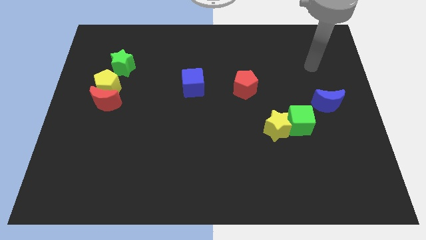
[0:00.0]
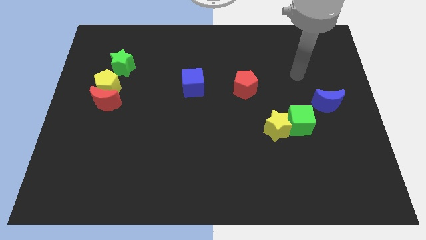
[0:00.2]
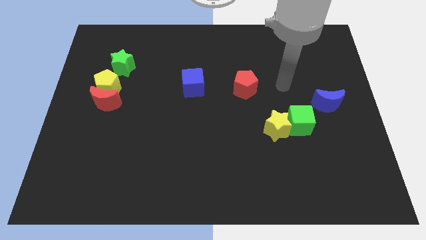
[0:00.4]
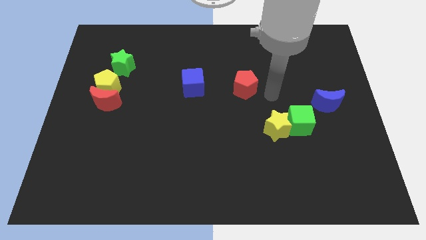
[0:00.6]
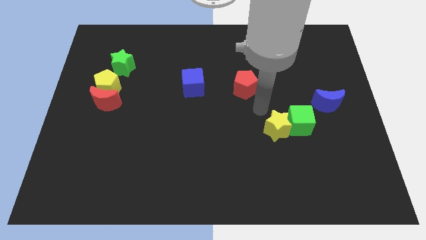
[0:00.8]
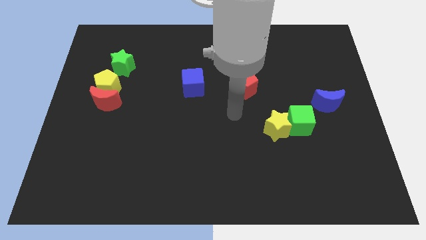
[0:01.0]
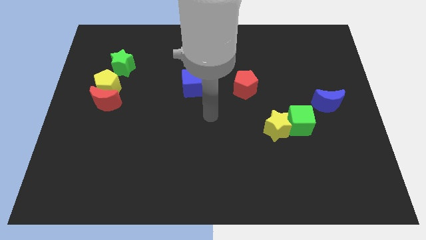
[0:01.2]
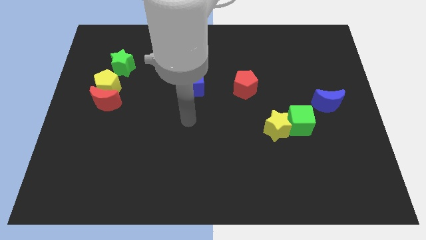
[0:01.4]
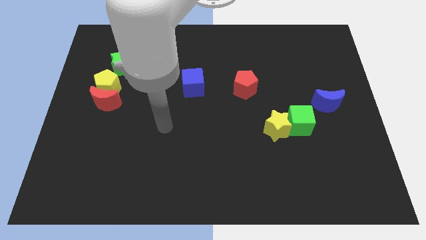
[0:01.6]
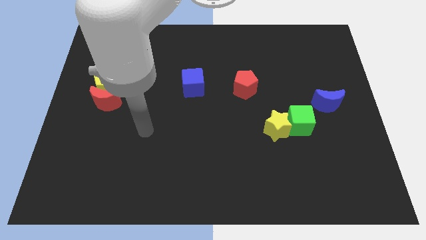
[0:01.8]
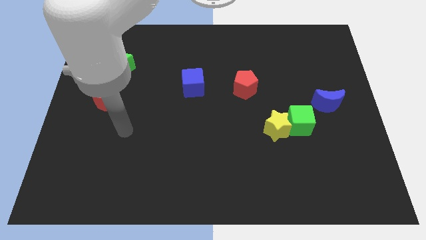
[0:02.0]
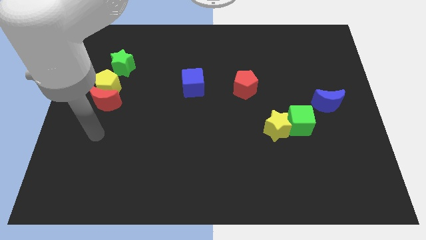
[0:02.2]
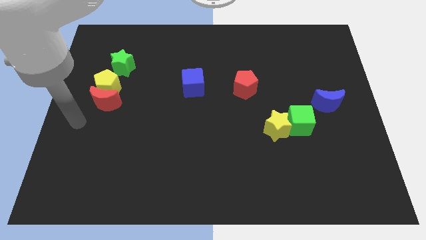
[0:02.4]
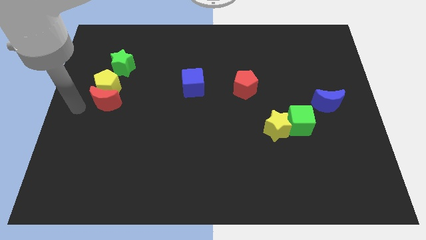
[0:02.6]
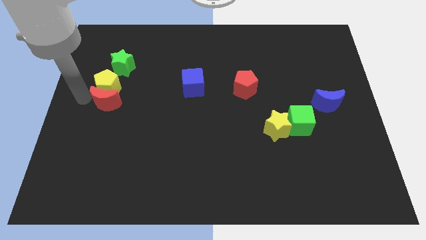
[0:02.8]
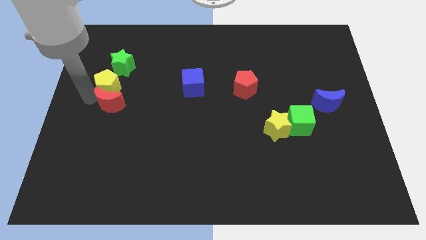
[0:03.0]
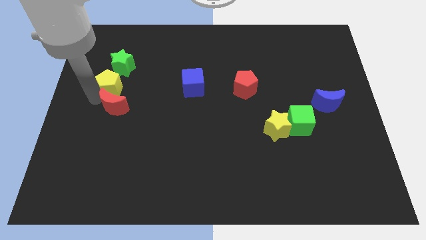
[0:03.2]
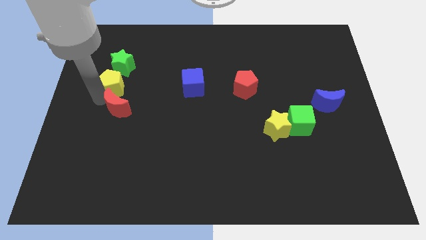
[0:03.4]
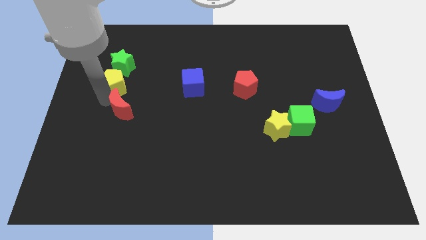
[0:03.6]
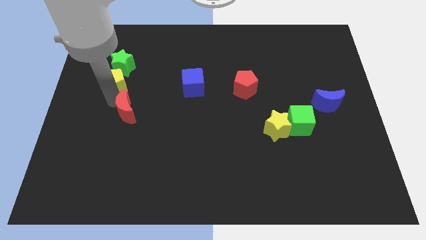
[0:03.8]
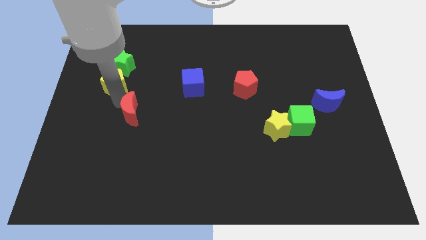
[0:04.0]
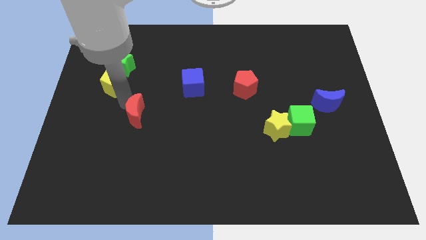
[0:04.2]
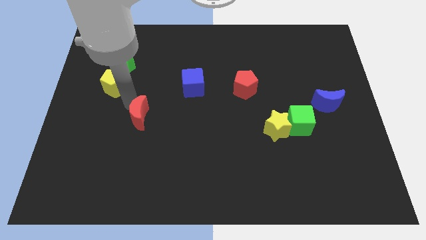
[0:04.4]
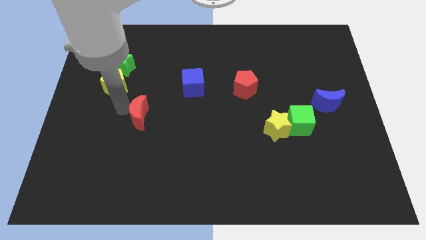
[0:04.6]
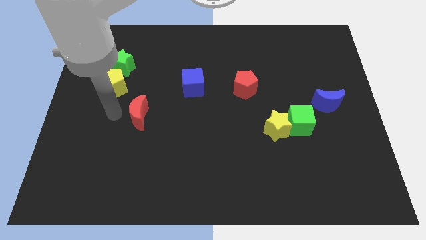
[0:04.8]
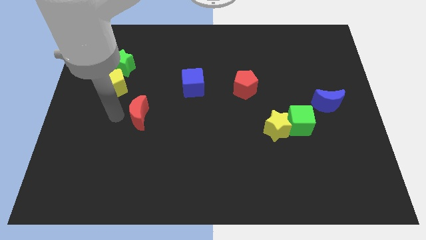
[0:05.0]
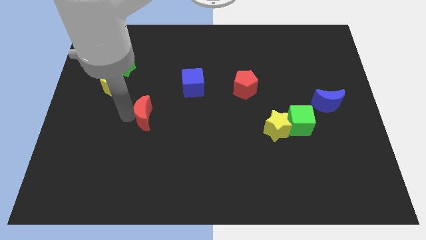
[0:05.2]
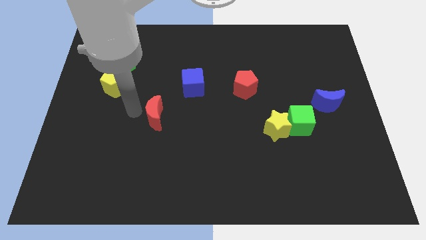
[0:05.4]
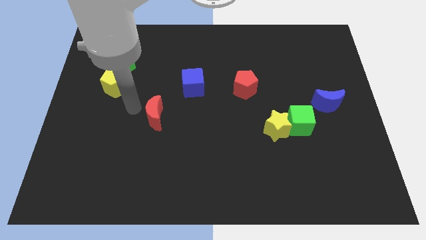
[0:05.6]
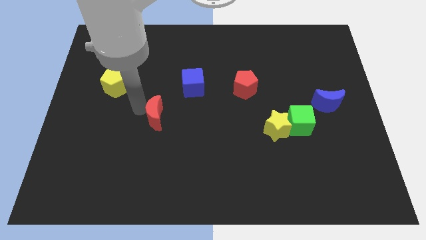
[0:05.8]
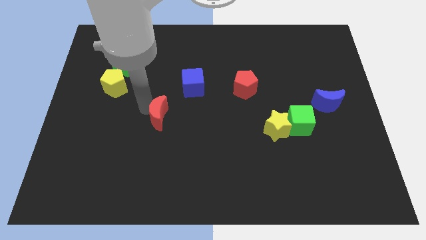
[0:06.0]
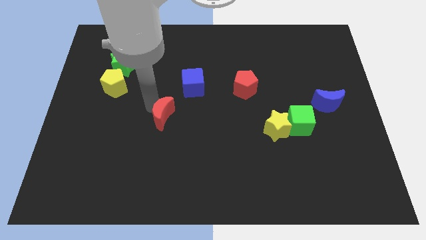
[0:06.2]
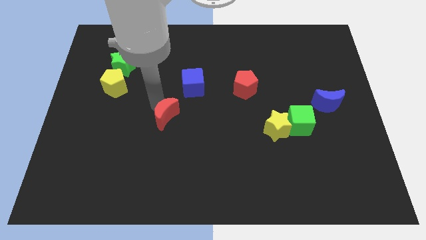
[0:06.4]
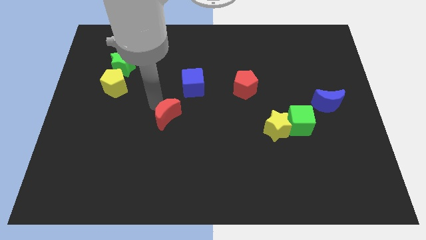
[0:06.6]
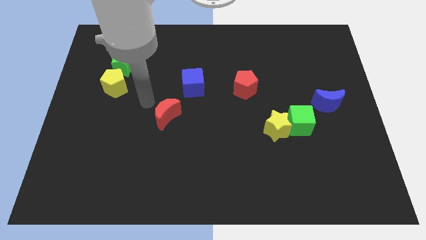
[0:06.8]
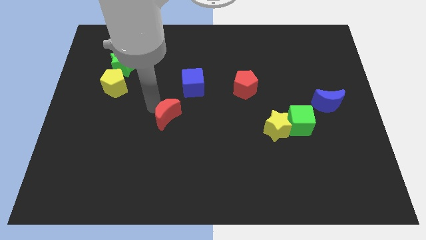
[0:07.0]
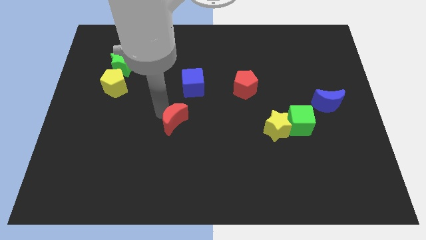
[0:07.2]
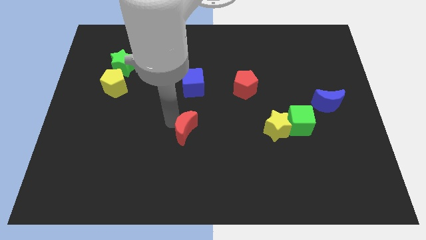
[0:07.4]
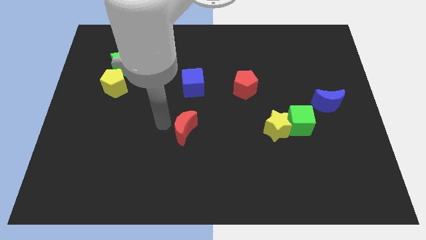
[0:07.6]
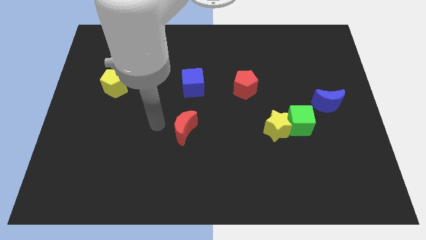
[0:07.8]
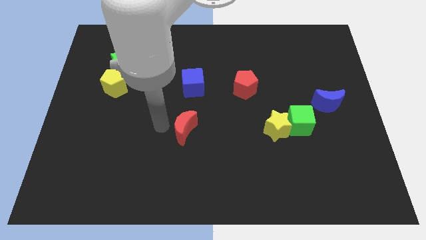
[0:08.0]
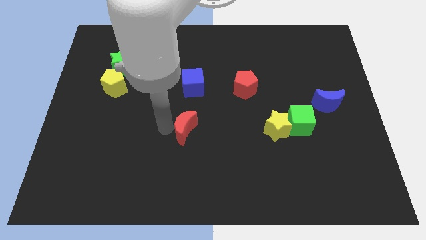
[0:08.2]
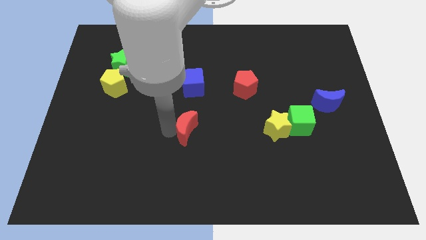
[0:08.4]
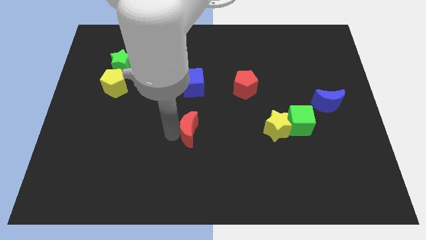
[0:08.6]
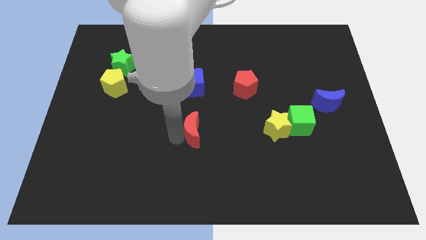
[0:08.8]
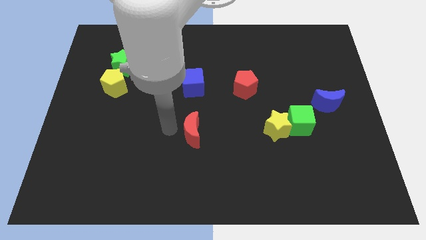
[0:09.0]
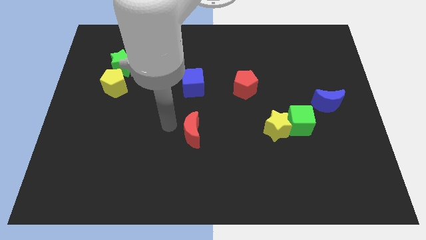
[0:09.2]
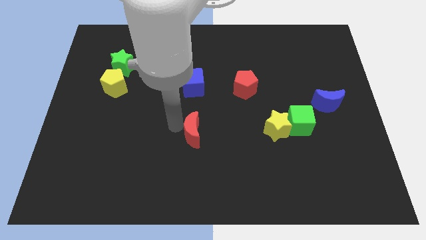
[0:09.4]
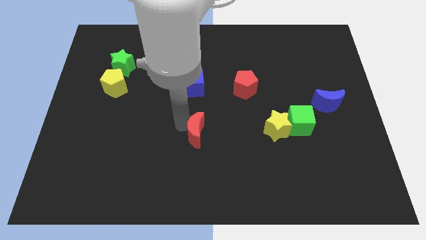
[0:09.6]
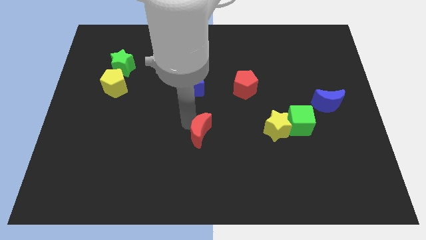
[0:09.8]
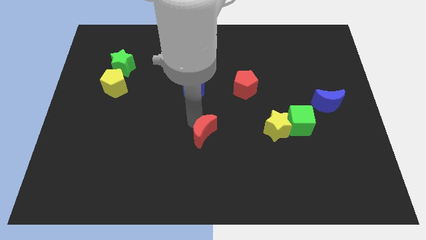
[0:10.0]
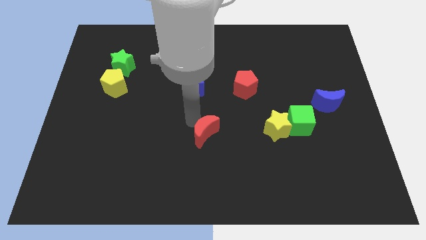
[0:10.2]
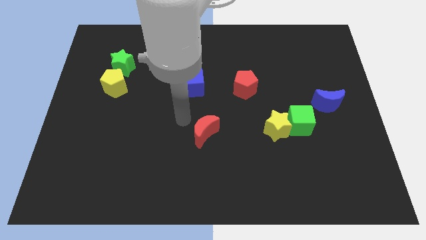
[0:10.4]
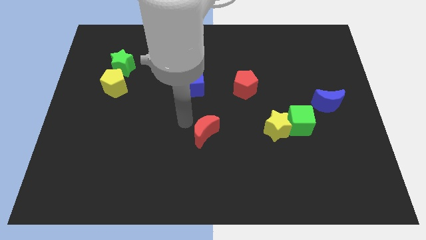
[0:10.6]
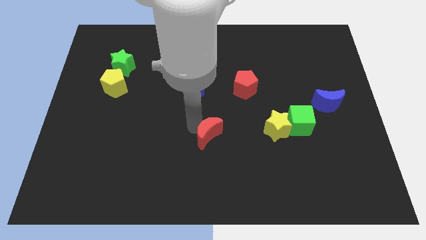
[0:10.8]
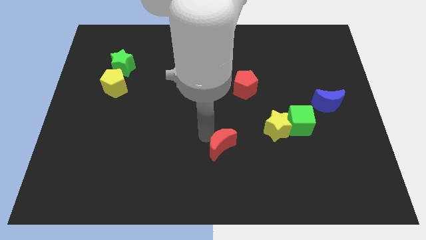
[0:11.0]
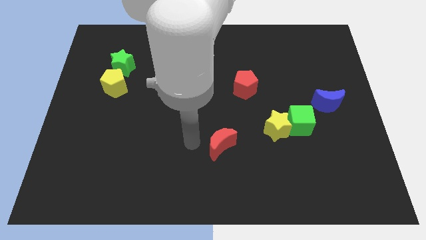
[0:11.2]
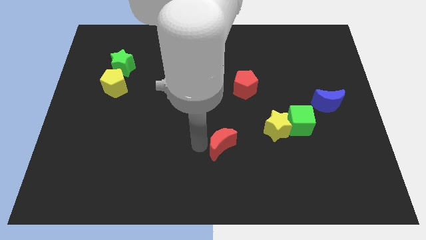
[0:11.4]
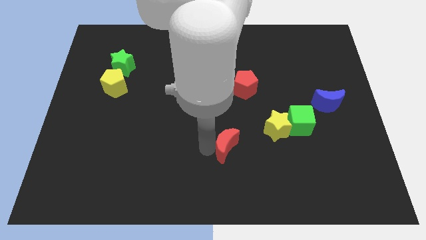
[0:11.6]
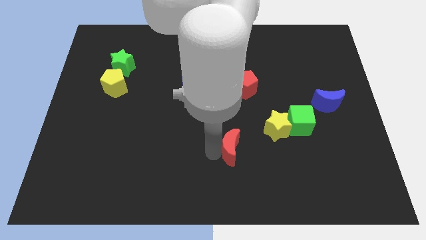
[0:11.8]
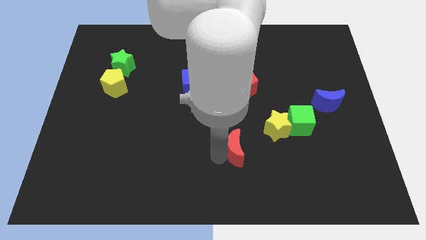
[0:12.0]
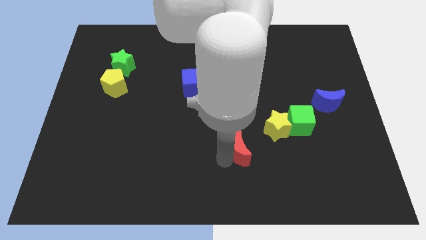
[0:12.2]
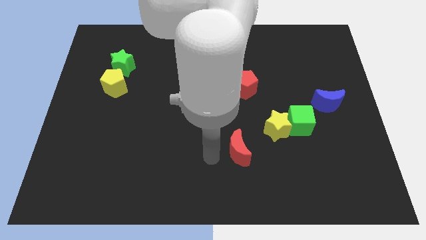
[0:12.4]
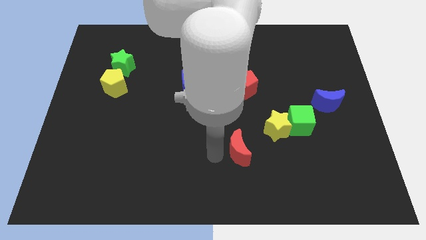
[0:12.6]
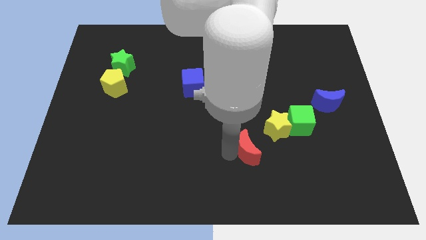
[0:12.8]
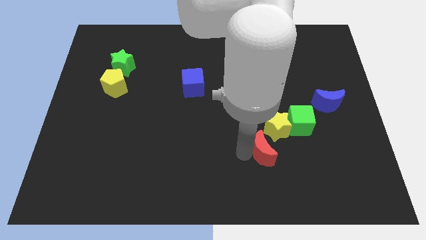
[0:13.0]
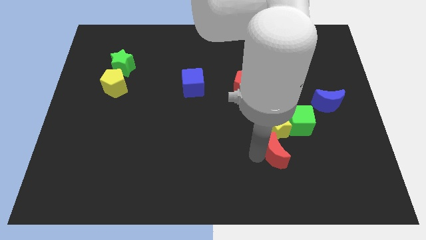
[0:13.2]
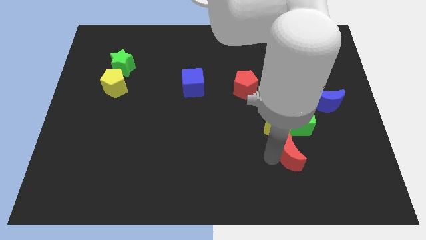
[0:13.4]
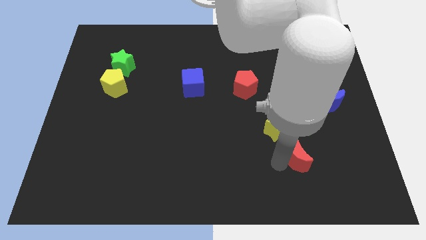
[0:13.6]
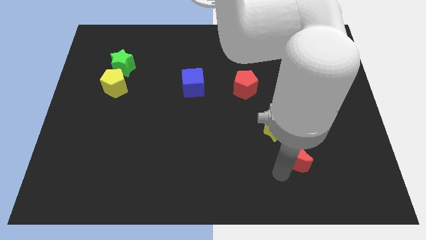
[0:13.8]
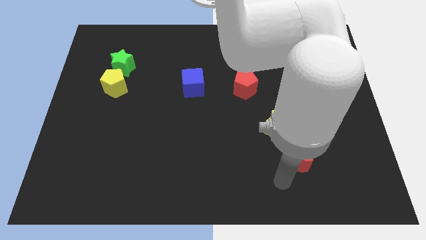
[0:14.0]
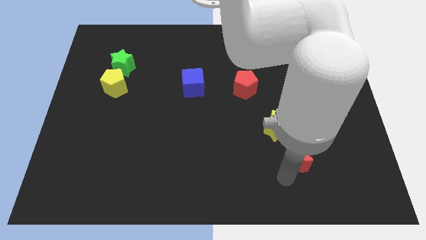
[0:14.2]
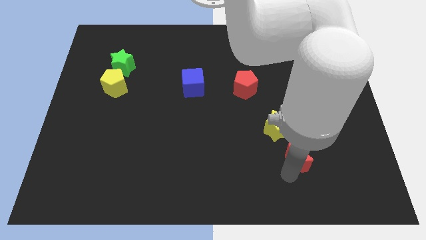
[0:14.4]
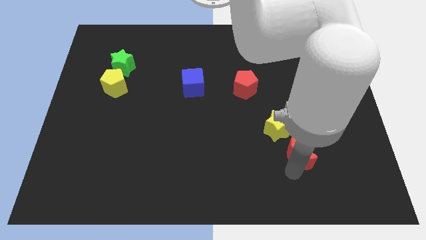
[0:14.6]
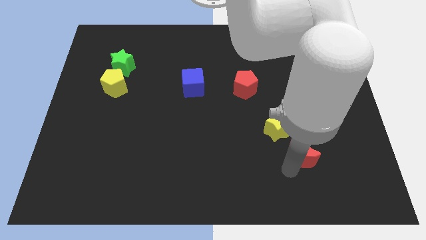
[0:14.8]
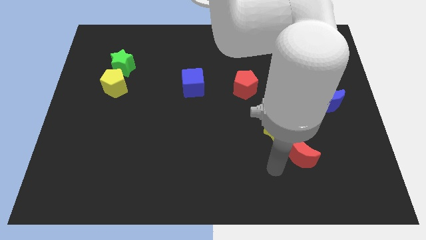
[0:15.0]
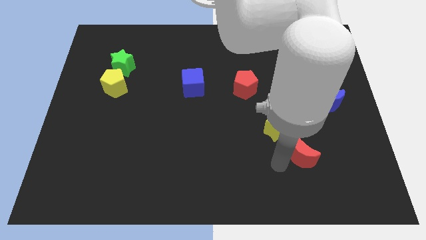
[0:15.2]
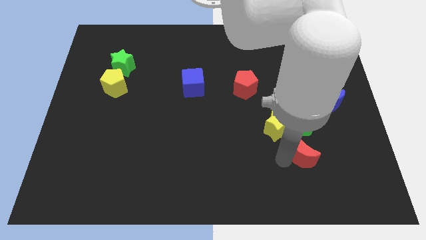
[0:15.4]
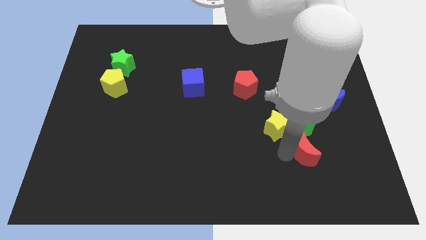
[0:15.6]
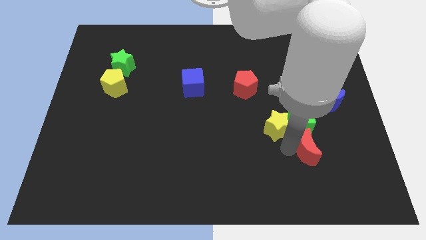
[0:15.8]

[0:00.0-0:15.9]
move the red moon to the bottom right of the green cube
